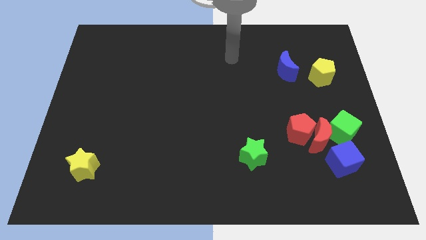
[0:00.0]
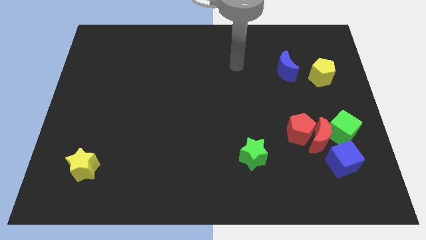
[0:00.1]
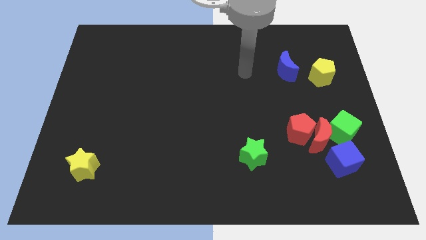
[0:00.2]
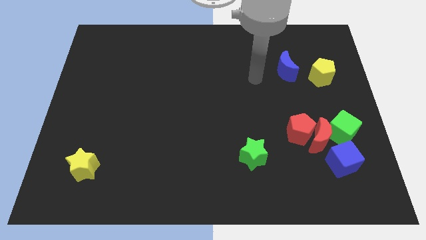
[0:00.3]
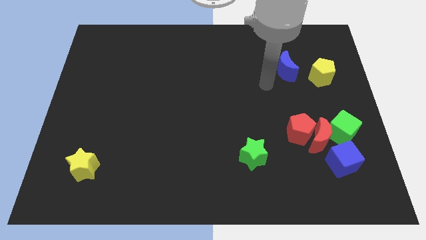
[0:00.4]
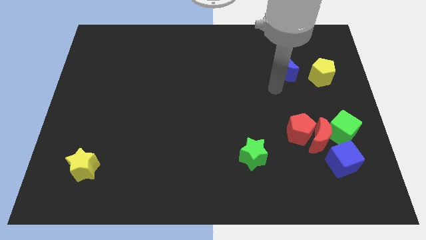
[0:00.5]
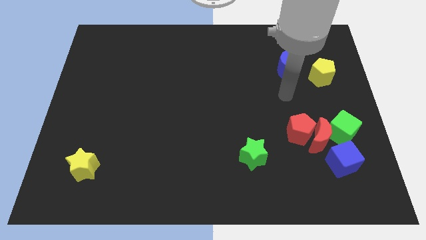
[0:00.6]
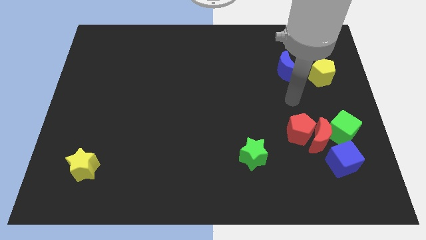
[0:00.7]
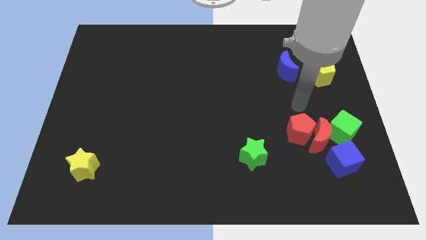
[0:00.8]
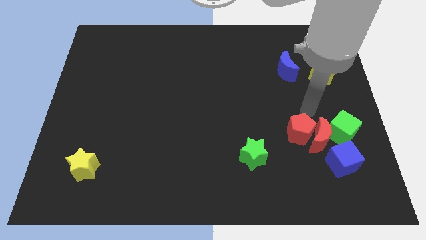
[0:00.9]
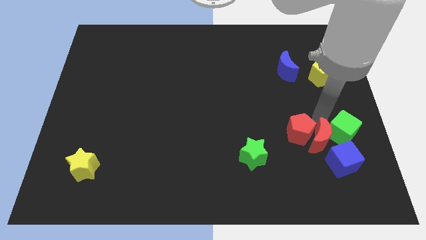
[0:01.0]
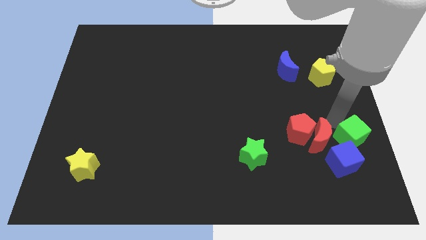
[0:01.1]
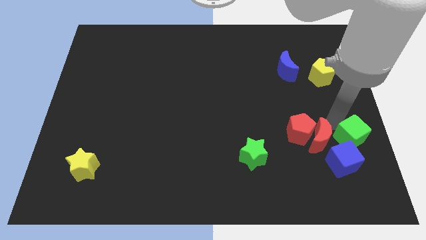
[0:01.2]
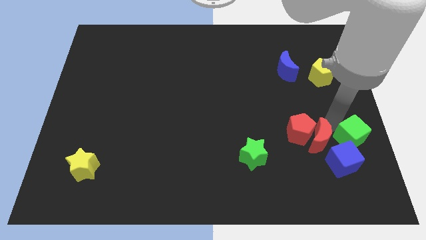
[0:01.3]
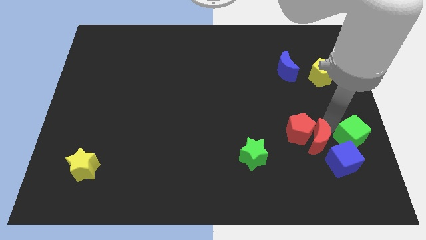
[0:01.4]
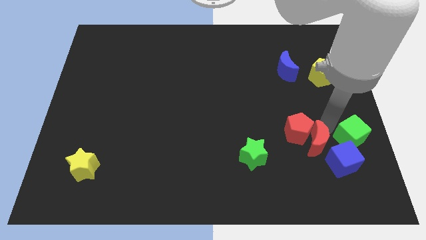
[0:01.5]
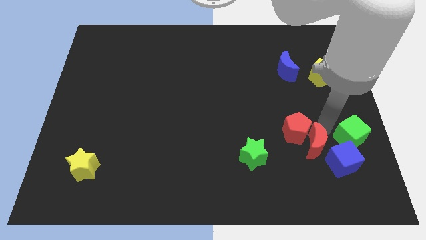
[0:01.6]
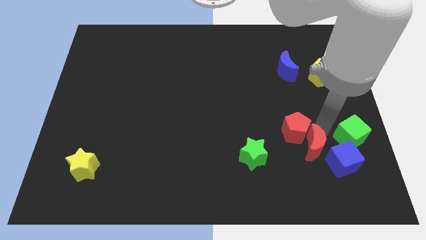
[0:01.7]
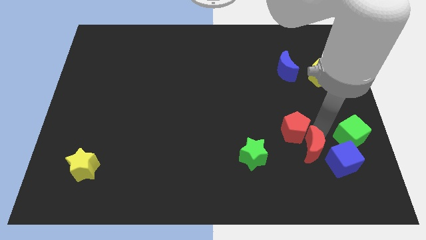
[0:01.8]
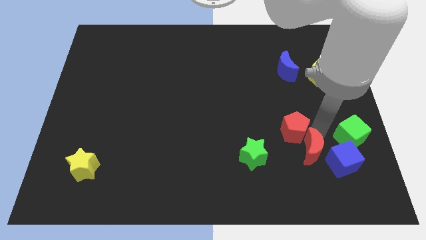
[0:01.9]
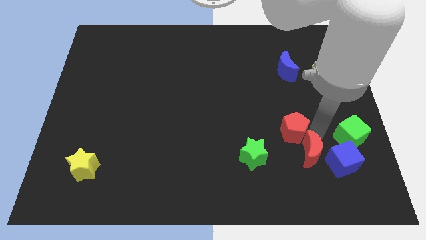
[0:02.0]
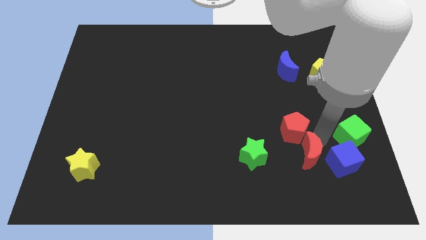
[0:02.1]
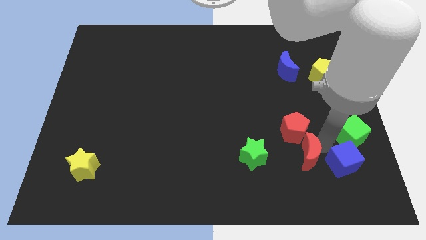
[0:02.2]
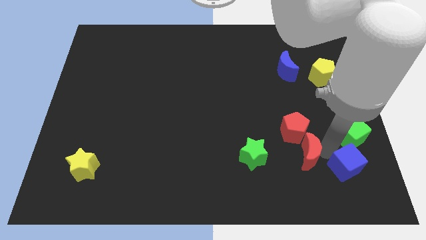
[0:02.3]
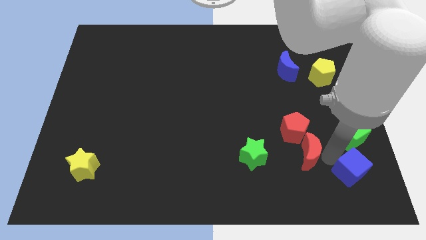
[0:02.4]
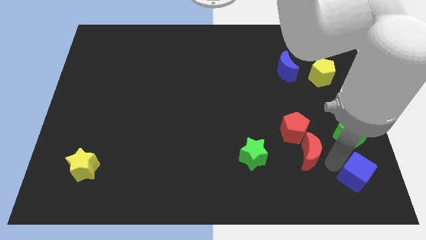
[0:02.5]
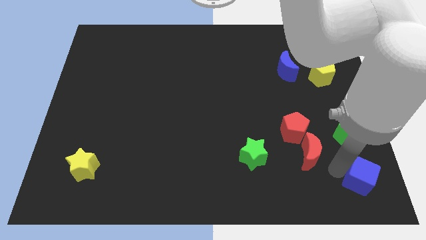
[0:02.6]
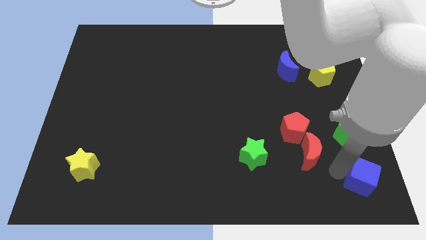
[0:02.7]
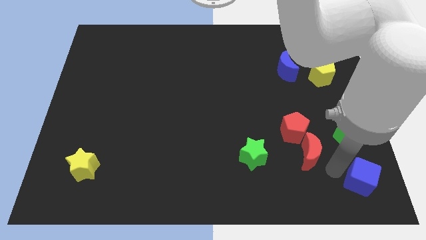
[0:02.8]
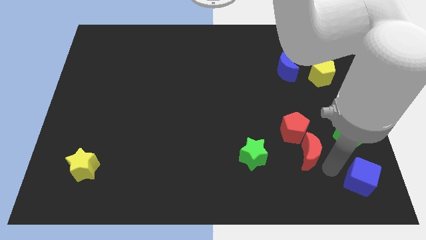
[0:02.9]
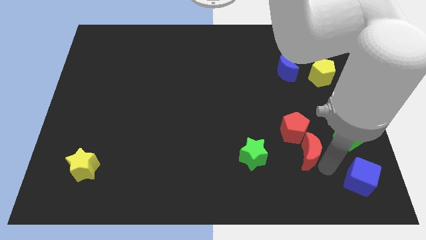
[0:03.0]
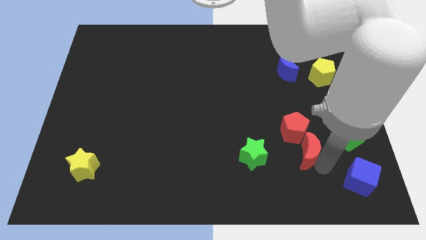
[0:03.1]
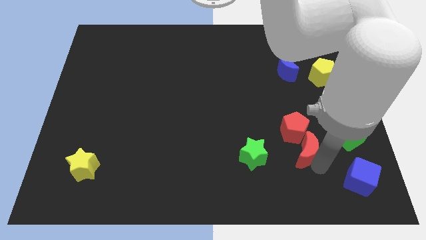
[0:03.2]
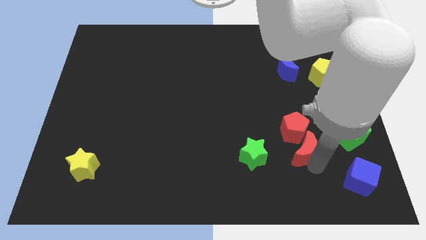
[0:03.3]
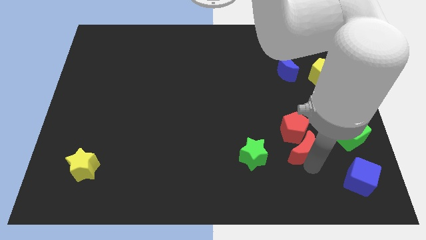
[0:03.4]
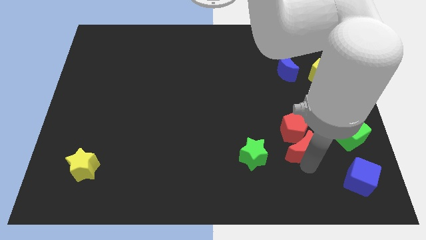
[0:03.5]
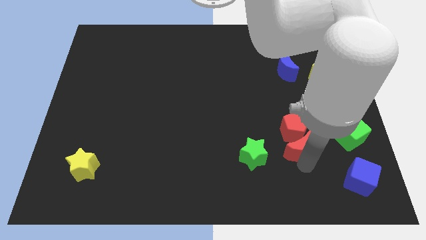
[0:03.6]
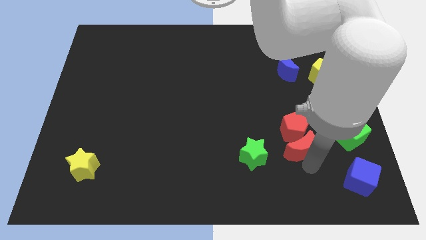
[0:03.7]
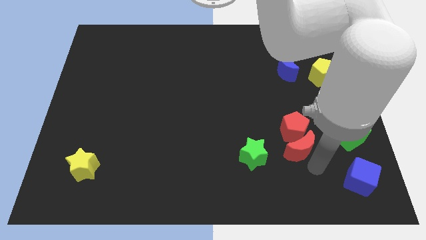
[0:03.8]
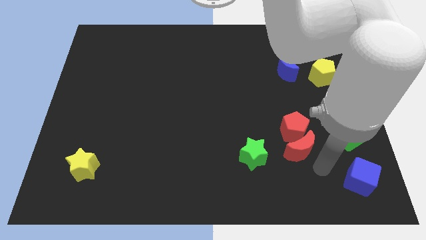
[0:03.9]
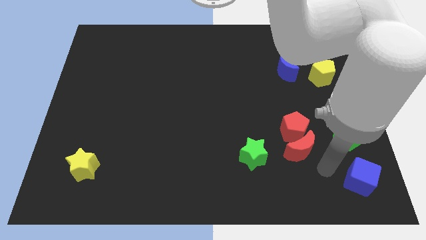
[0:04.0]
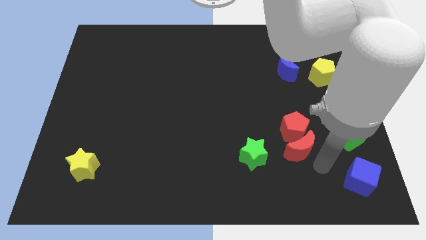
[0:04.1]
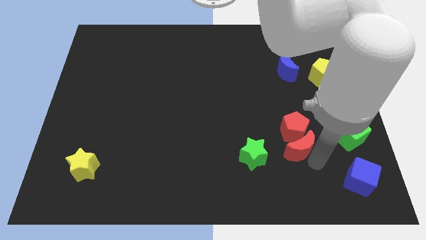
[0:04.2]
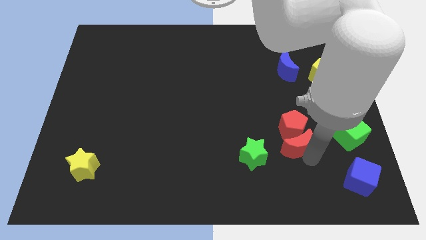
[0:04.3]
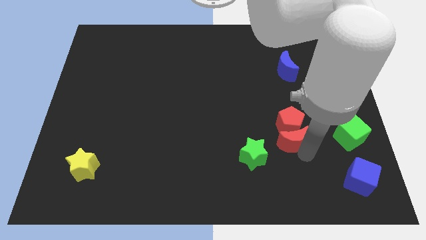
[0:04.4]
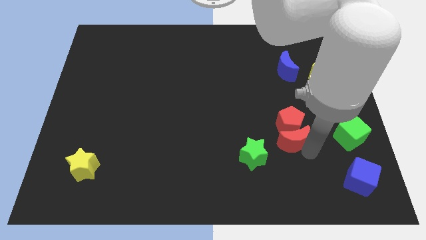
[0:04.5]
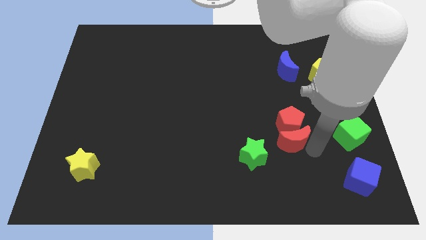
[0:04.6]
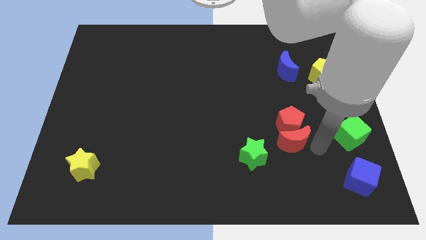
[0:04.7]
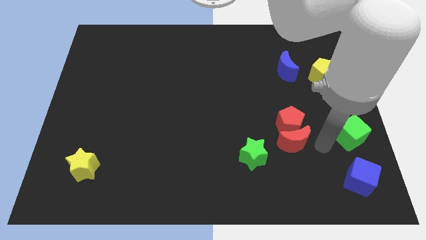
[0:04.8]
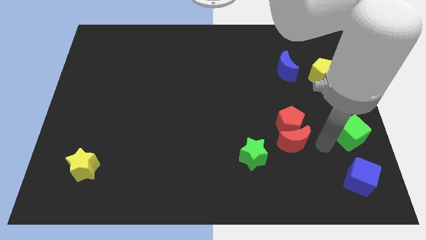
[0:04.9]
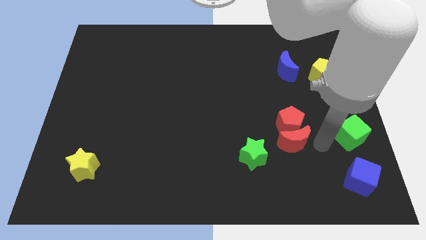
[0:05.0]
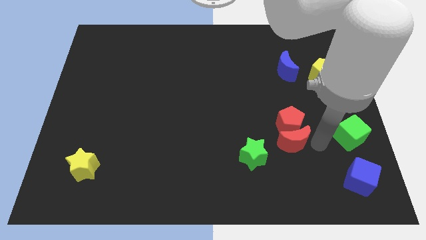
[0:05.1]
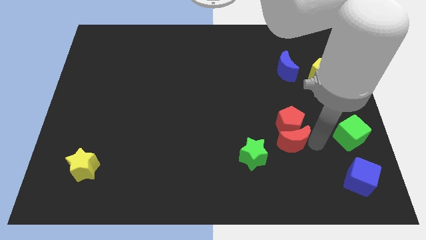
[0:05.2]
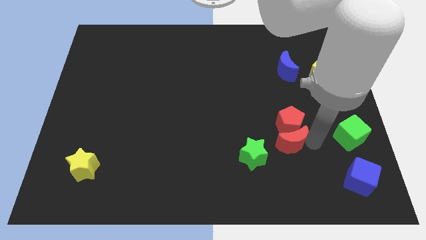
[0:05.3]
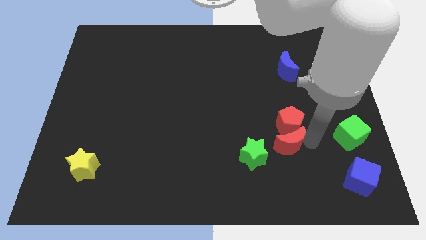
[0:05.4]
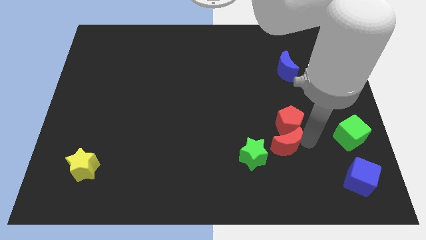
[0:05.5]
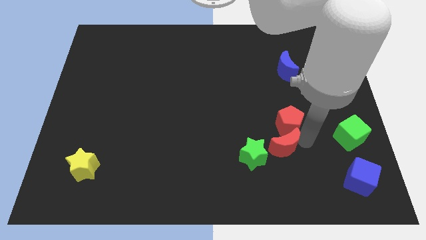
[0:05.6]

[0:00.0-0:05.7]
pull the red moon apart from the red pentagon, green cube, and blue cube

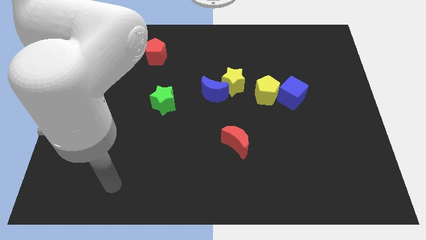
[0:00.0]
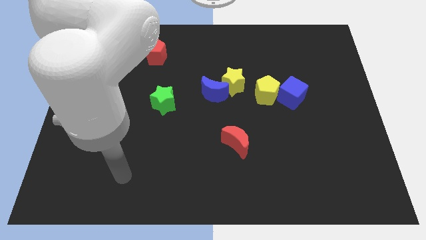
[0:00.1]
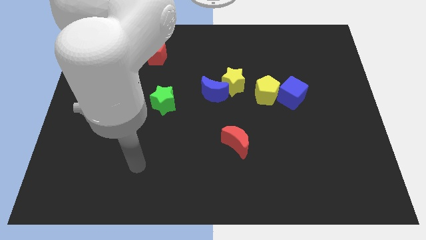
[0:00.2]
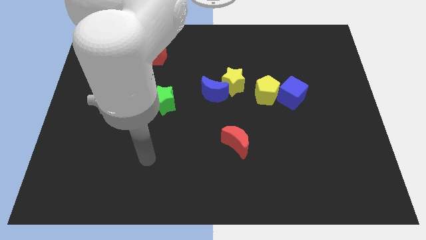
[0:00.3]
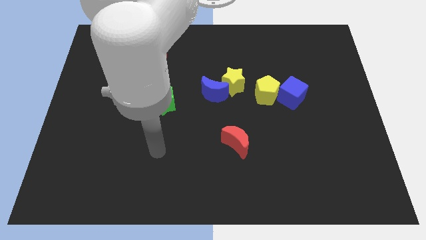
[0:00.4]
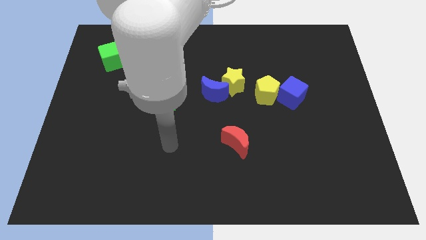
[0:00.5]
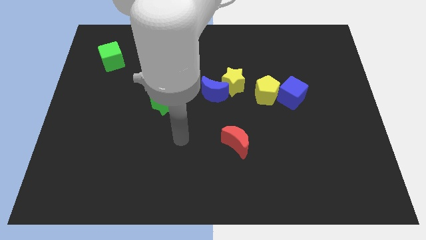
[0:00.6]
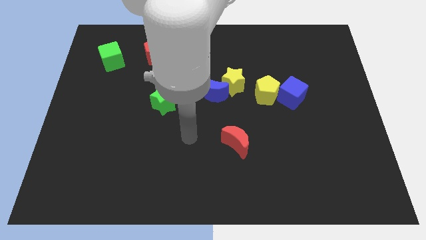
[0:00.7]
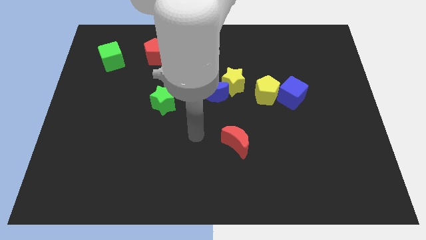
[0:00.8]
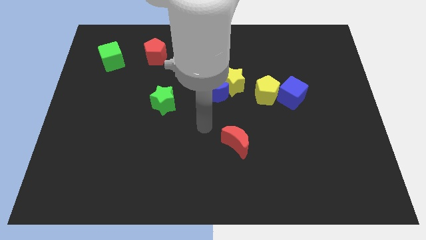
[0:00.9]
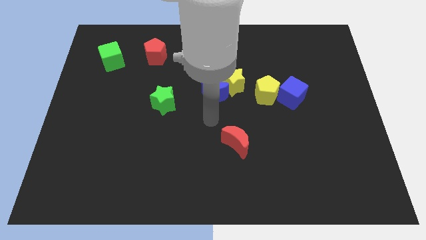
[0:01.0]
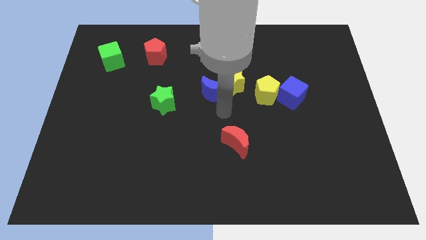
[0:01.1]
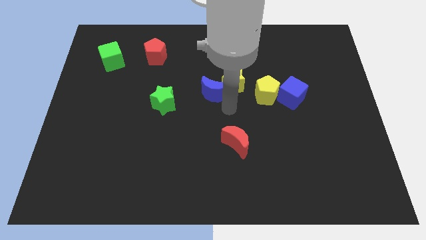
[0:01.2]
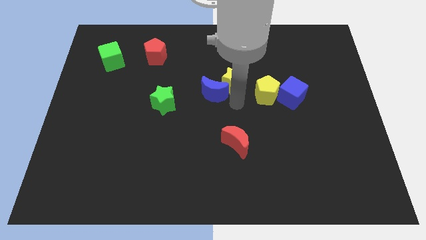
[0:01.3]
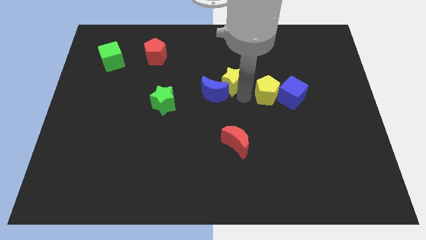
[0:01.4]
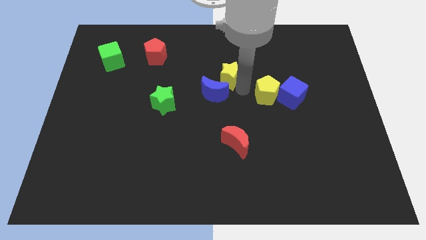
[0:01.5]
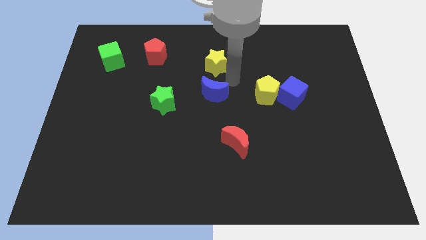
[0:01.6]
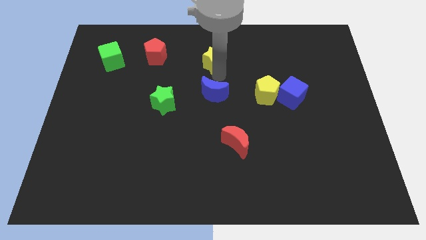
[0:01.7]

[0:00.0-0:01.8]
separate the blue moon from the yellow star

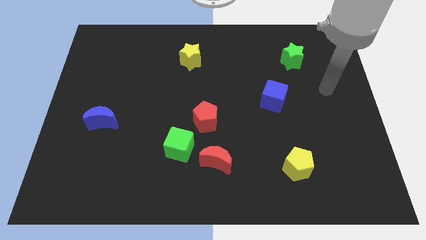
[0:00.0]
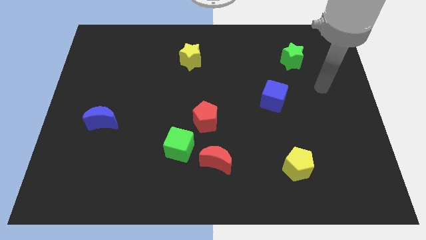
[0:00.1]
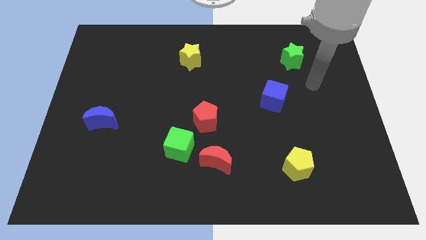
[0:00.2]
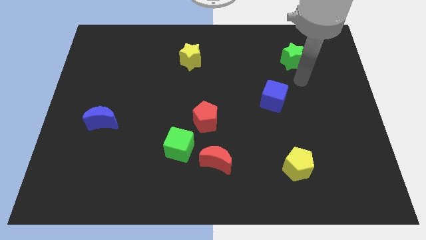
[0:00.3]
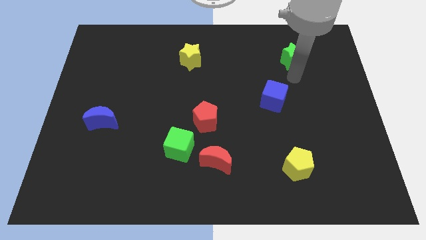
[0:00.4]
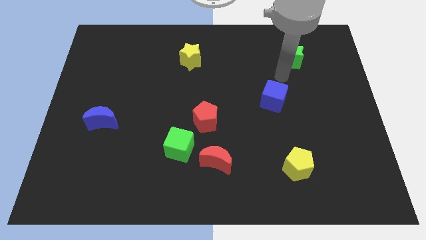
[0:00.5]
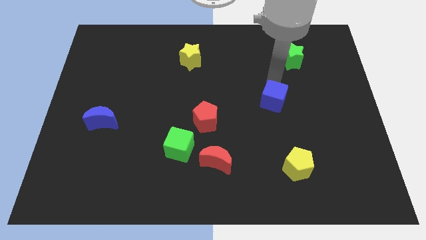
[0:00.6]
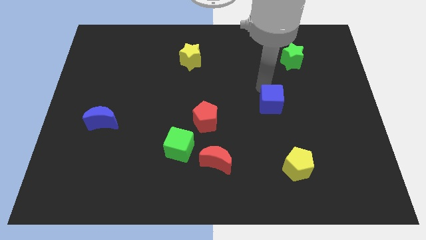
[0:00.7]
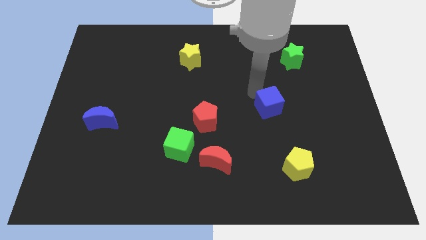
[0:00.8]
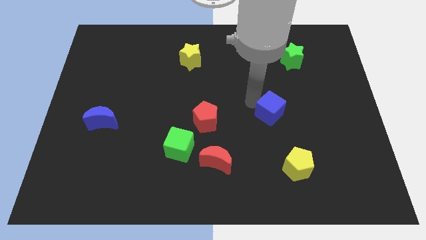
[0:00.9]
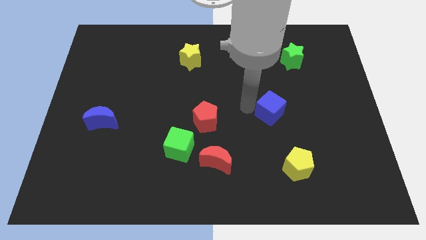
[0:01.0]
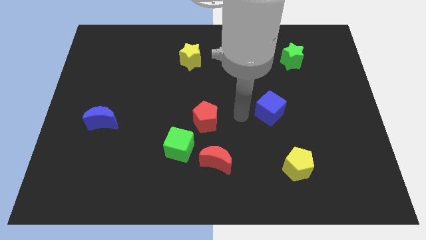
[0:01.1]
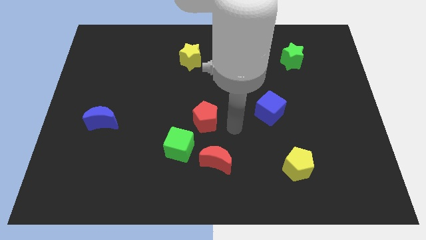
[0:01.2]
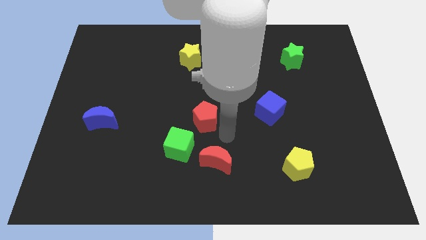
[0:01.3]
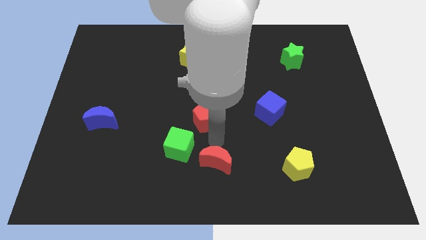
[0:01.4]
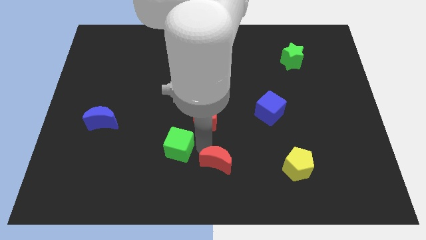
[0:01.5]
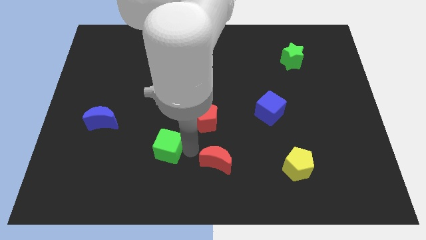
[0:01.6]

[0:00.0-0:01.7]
move the red moon away from the green cube

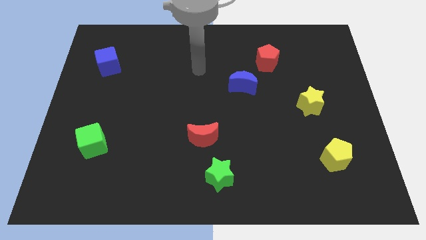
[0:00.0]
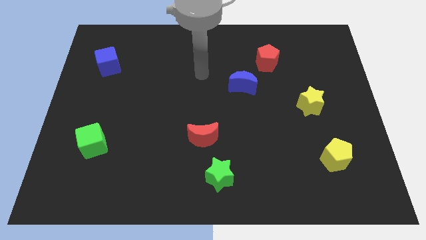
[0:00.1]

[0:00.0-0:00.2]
pull the red moon apart from the green star
